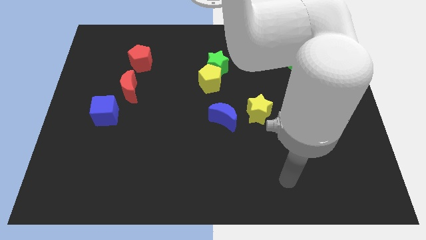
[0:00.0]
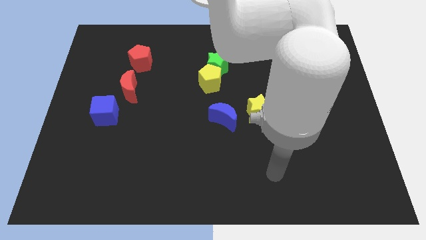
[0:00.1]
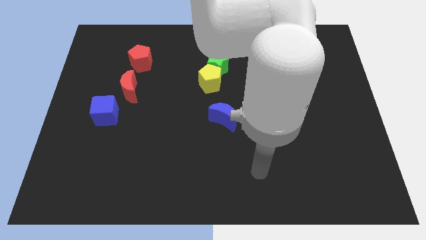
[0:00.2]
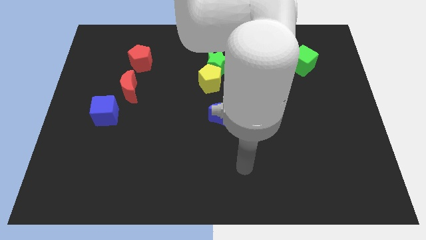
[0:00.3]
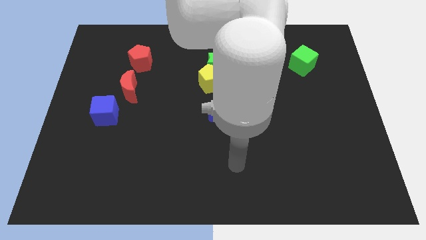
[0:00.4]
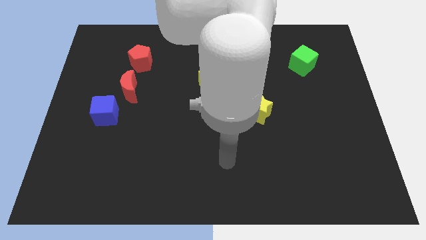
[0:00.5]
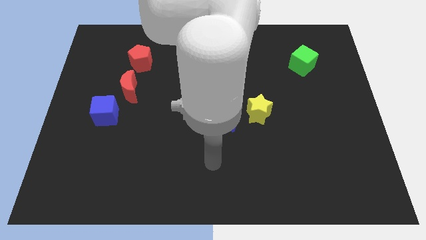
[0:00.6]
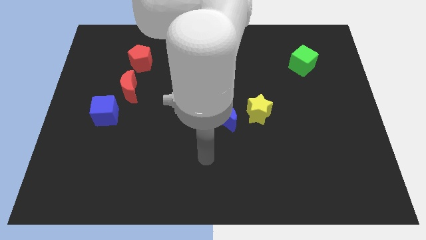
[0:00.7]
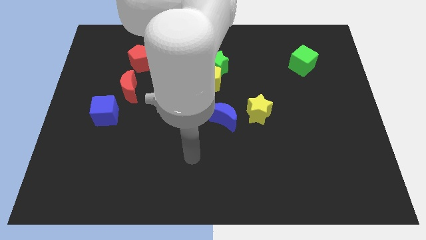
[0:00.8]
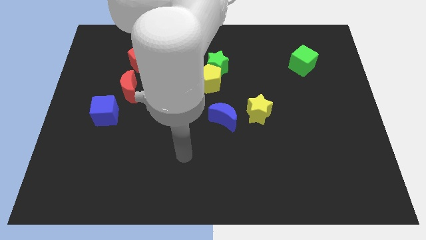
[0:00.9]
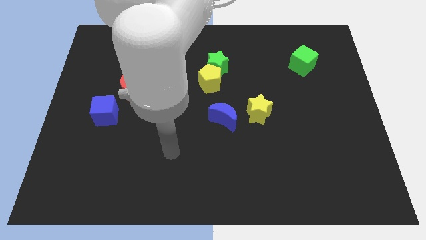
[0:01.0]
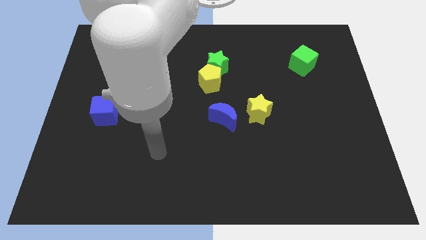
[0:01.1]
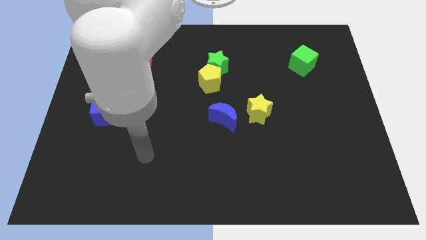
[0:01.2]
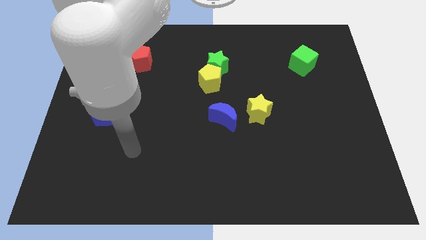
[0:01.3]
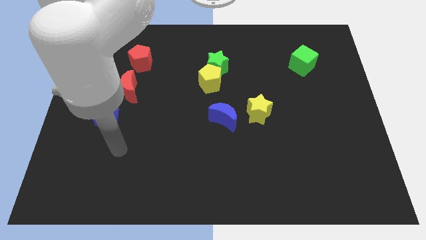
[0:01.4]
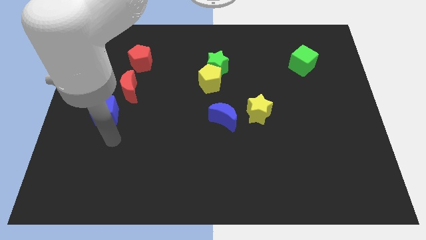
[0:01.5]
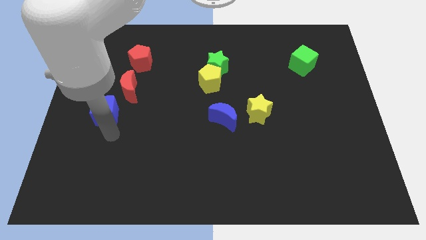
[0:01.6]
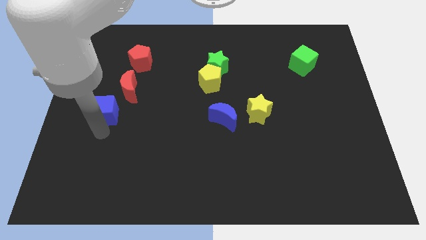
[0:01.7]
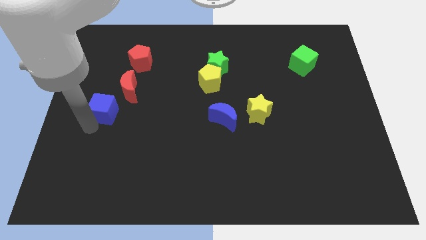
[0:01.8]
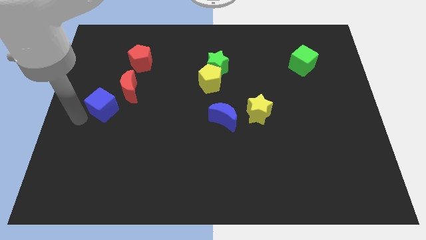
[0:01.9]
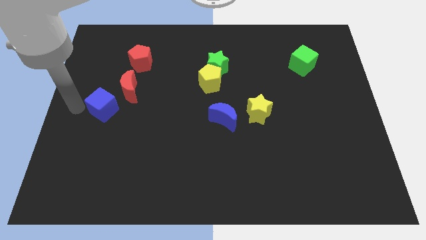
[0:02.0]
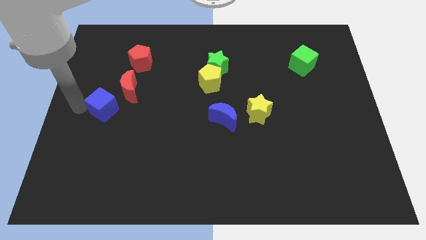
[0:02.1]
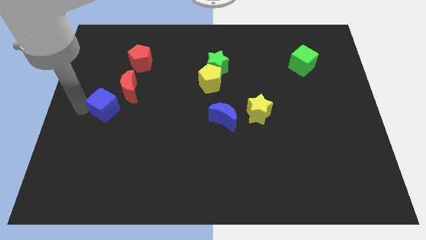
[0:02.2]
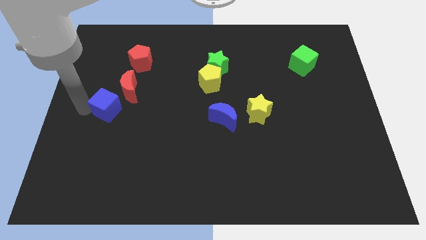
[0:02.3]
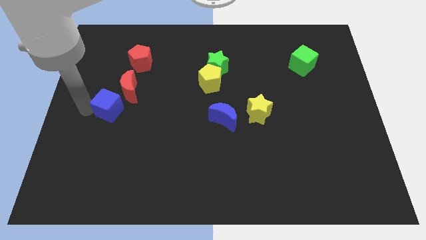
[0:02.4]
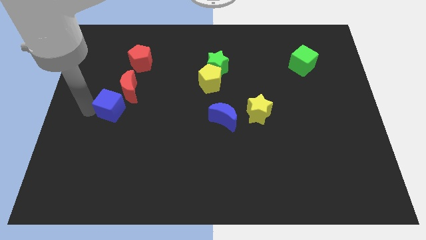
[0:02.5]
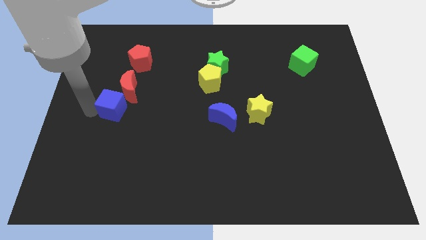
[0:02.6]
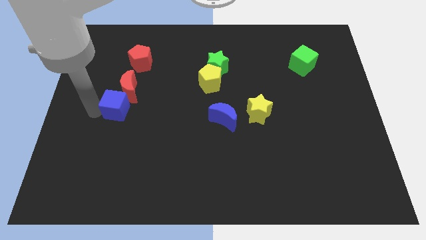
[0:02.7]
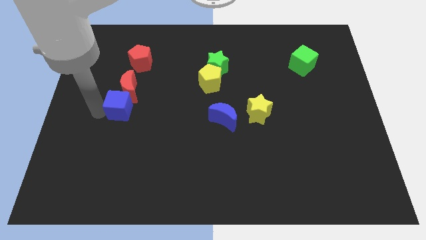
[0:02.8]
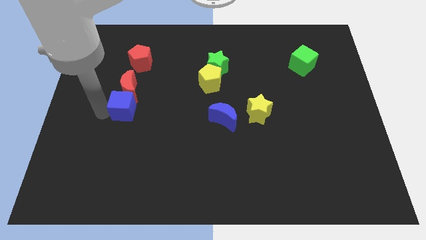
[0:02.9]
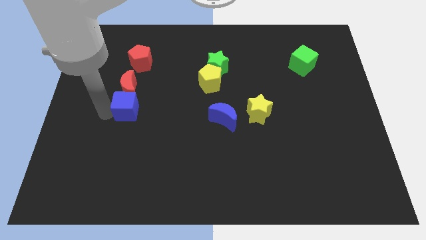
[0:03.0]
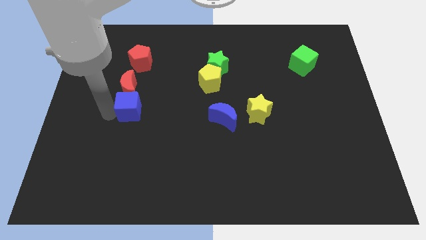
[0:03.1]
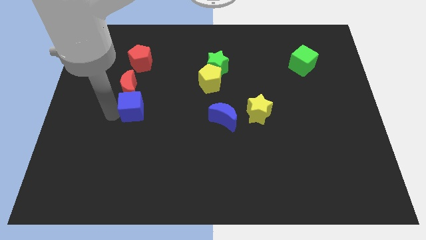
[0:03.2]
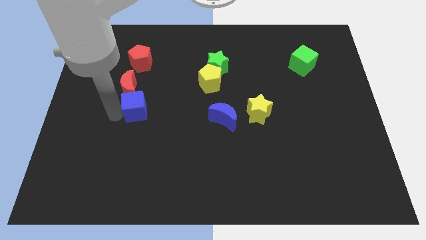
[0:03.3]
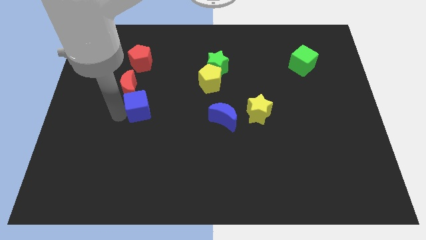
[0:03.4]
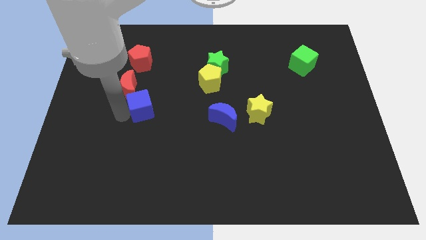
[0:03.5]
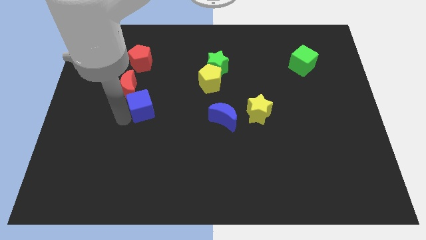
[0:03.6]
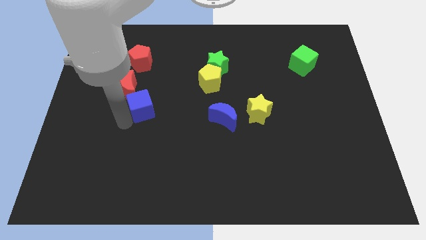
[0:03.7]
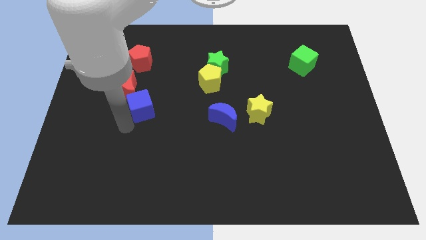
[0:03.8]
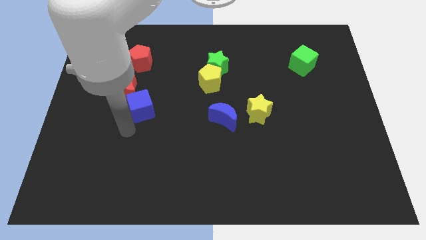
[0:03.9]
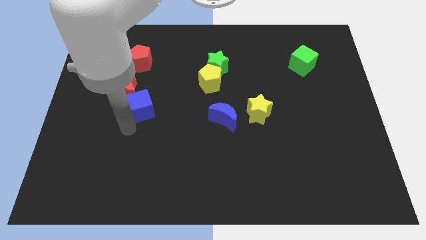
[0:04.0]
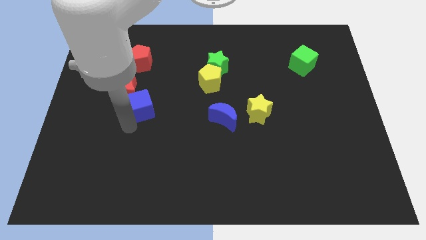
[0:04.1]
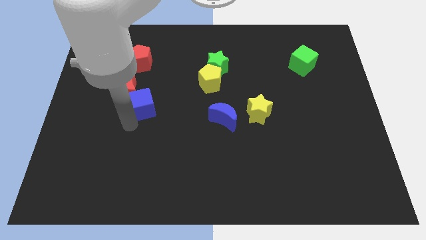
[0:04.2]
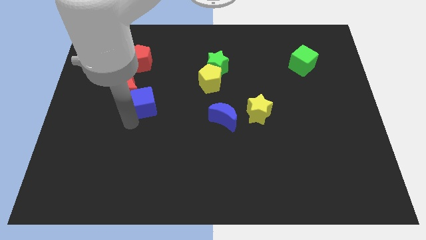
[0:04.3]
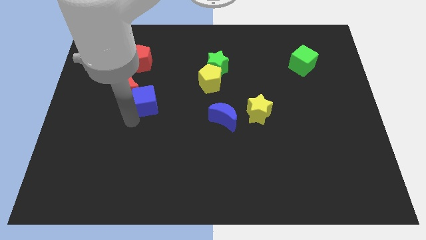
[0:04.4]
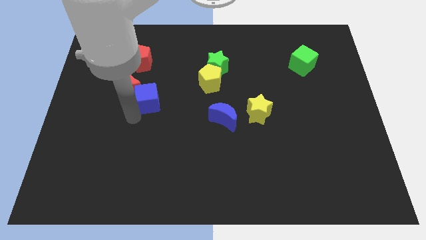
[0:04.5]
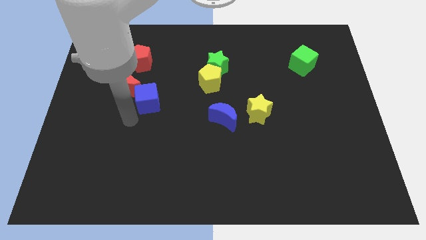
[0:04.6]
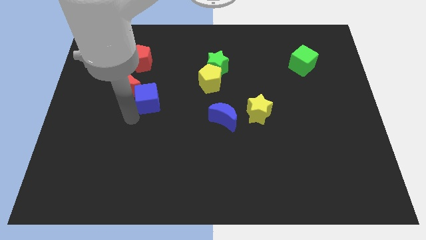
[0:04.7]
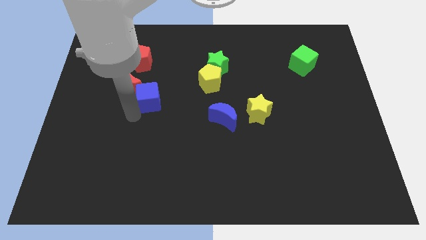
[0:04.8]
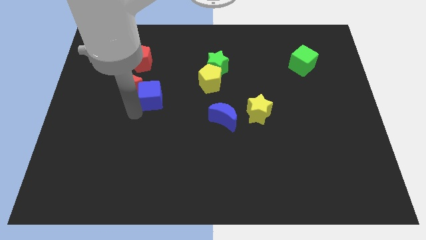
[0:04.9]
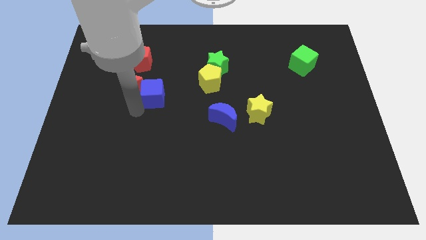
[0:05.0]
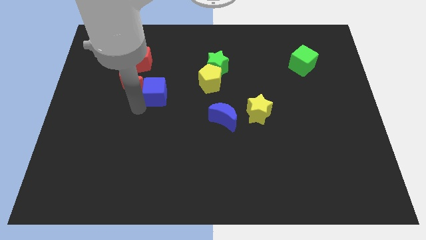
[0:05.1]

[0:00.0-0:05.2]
slide the blue cube to the left of the yellow pentagon

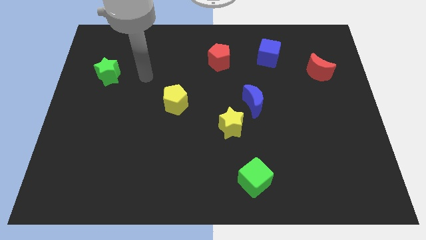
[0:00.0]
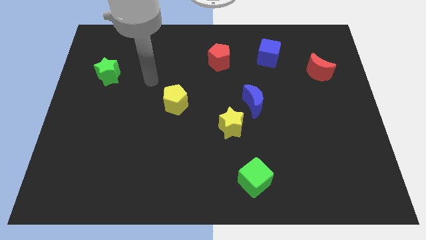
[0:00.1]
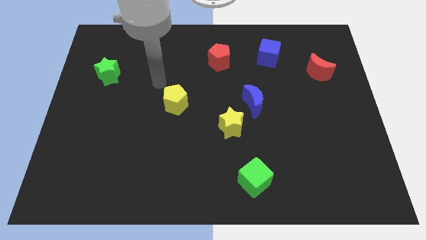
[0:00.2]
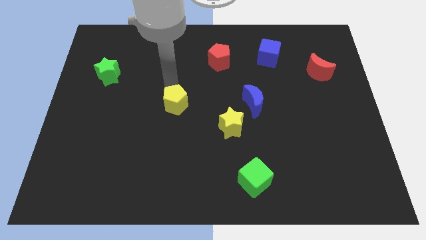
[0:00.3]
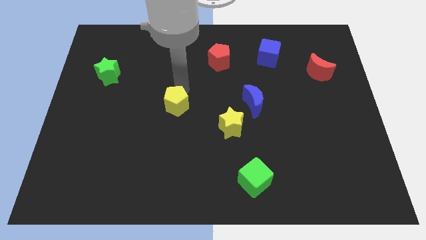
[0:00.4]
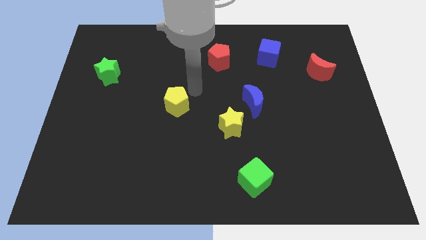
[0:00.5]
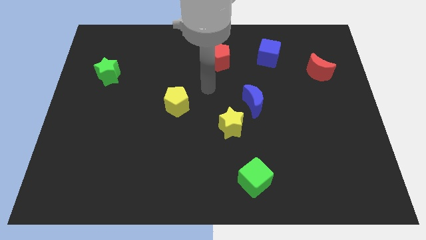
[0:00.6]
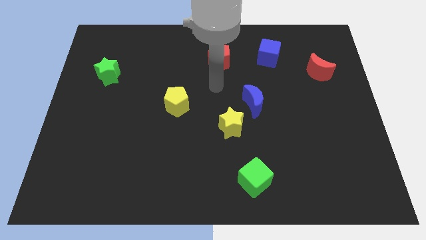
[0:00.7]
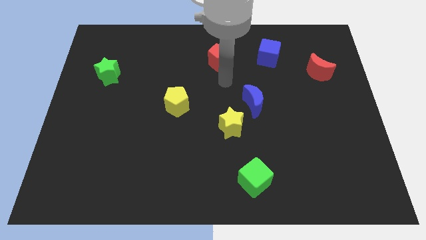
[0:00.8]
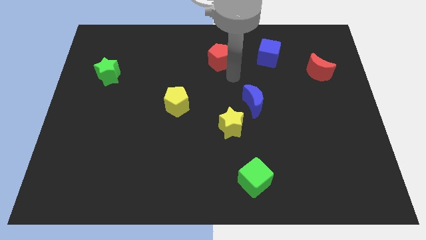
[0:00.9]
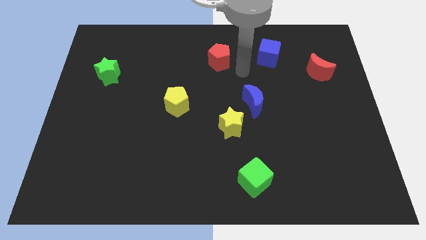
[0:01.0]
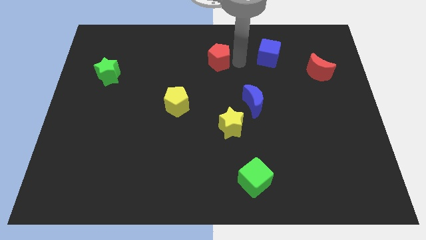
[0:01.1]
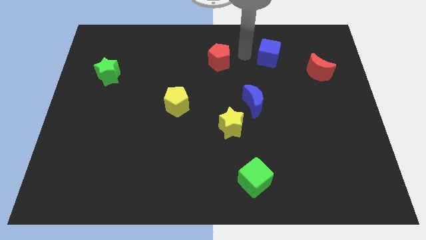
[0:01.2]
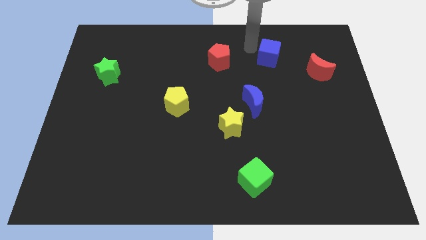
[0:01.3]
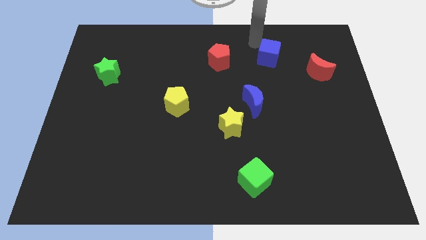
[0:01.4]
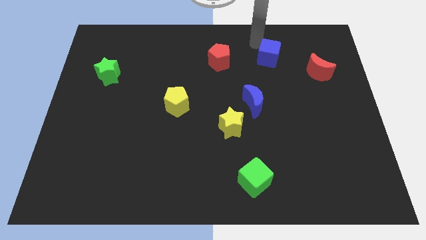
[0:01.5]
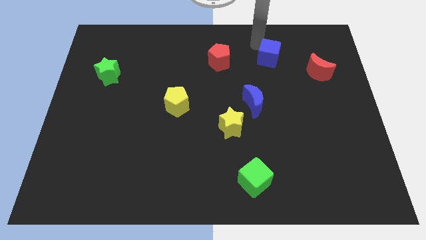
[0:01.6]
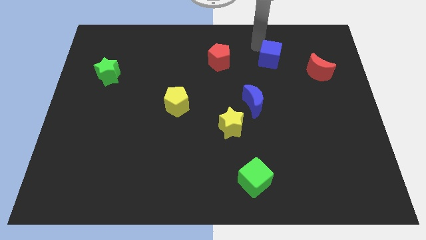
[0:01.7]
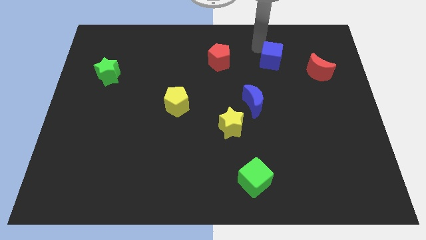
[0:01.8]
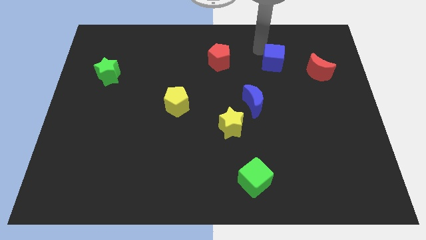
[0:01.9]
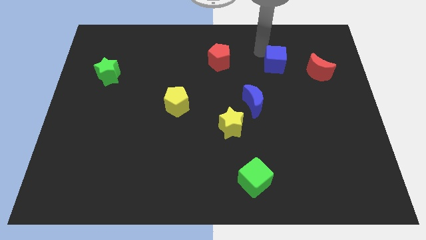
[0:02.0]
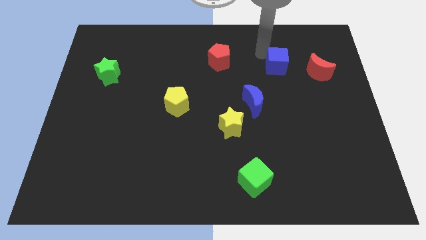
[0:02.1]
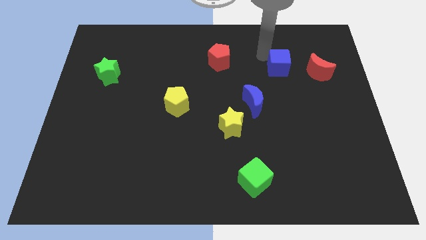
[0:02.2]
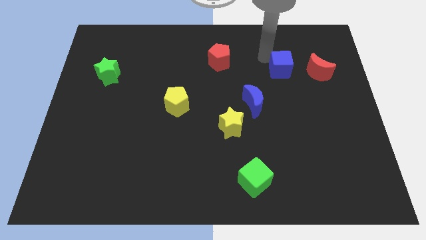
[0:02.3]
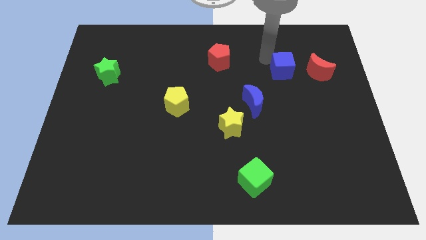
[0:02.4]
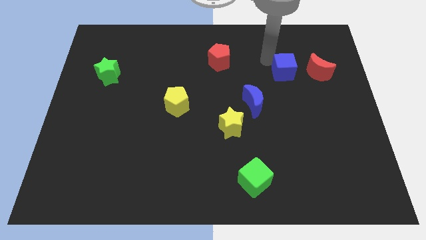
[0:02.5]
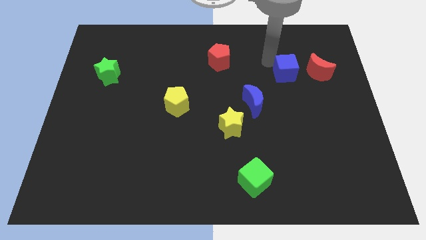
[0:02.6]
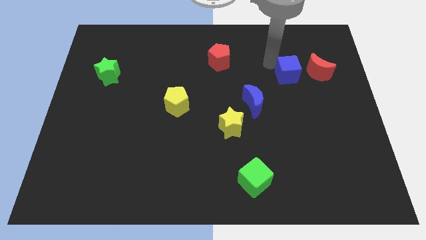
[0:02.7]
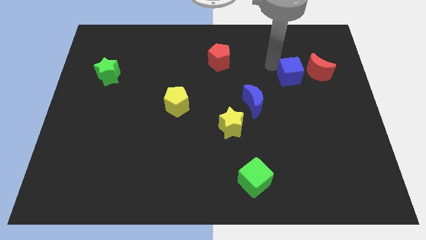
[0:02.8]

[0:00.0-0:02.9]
slide the blue cube diagonally down and to the left of the red moon

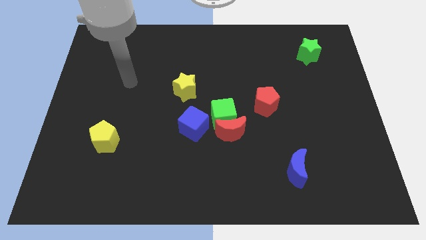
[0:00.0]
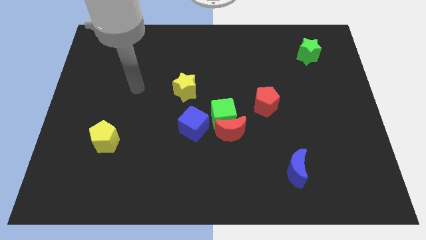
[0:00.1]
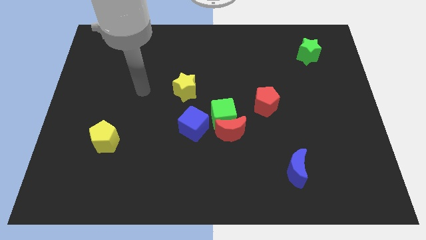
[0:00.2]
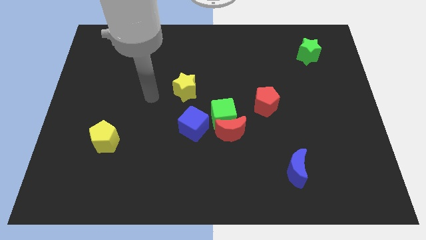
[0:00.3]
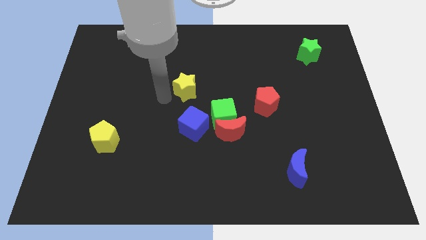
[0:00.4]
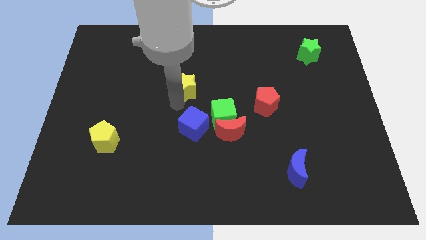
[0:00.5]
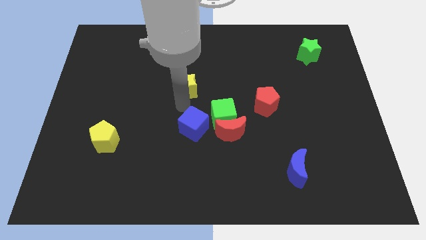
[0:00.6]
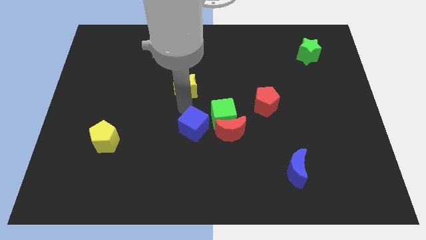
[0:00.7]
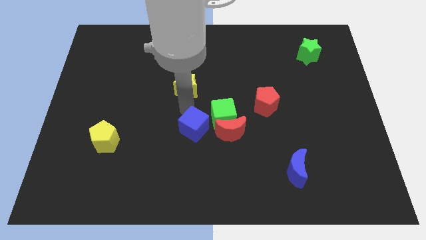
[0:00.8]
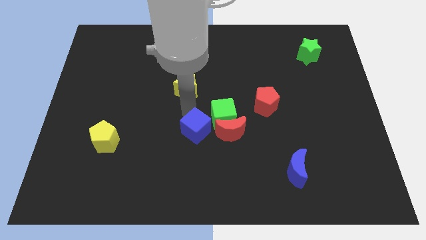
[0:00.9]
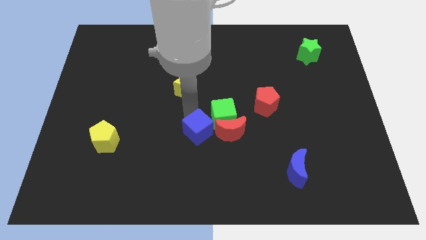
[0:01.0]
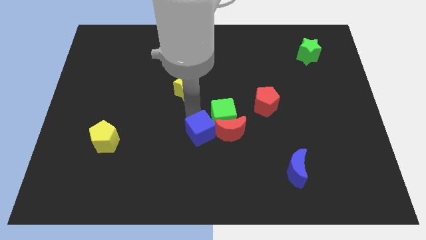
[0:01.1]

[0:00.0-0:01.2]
push the blue cube to the bottom left of the red moon
